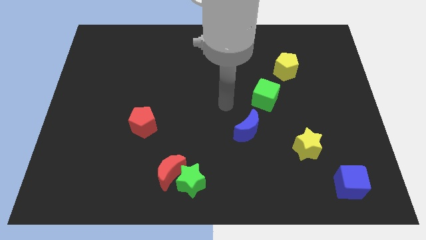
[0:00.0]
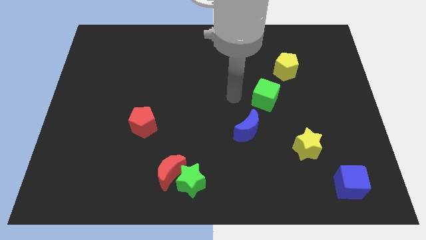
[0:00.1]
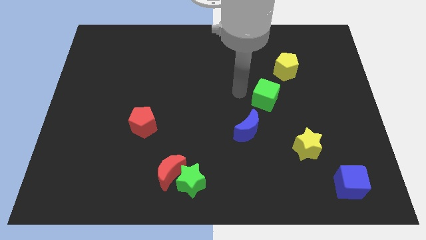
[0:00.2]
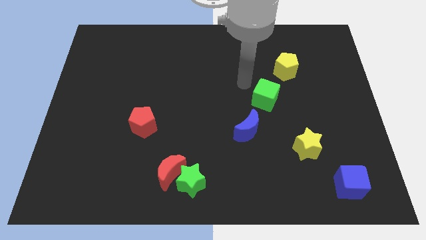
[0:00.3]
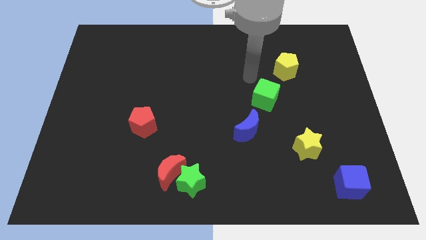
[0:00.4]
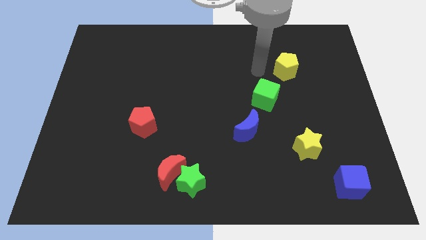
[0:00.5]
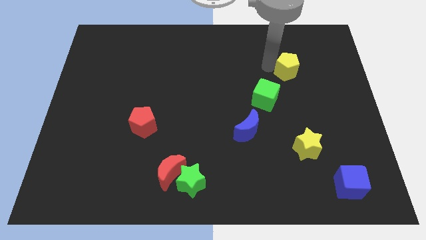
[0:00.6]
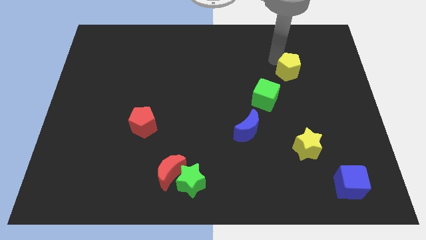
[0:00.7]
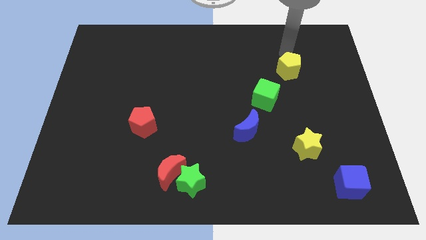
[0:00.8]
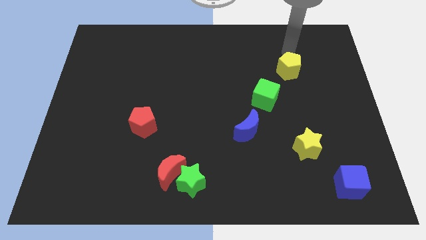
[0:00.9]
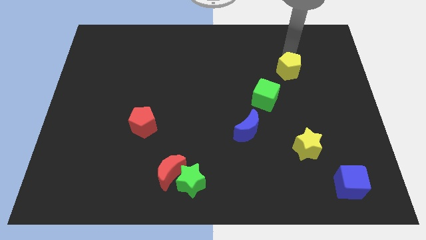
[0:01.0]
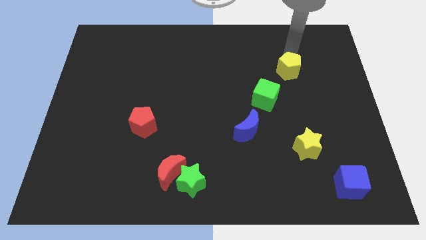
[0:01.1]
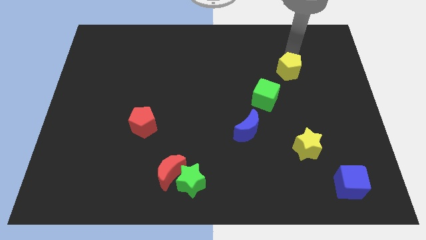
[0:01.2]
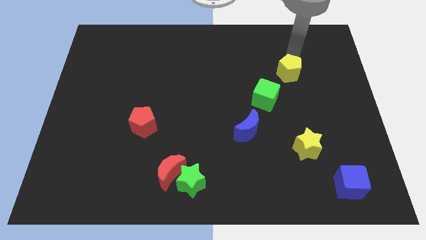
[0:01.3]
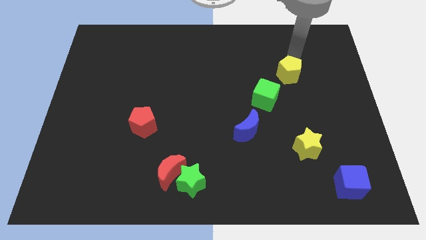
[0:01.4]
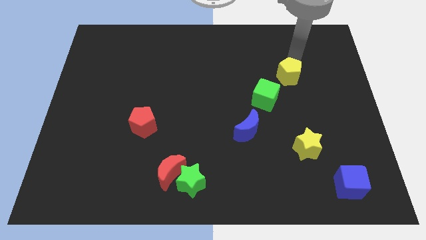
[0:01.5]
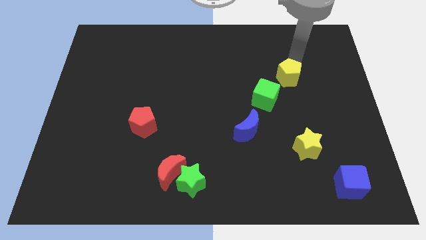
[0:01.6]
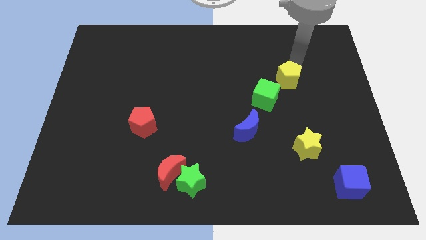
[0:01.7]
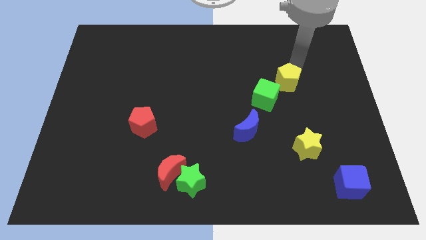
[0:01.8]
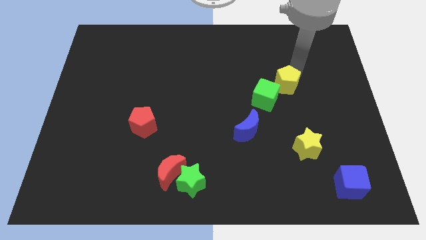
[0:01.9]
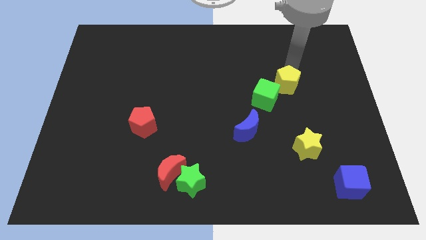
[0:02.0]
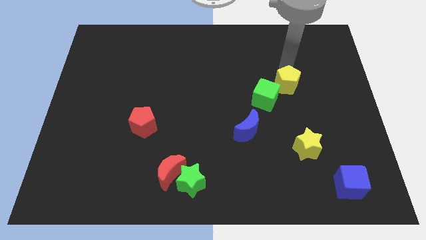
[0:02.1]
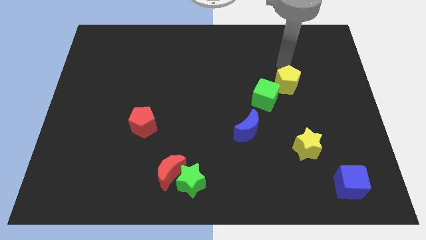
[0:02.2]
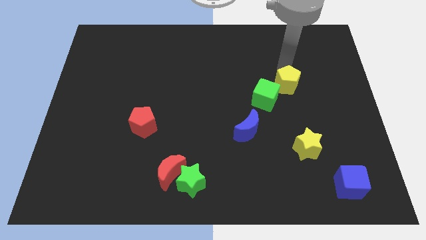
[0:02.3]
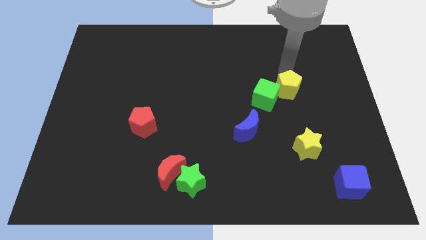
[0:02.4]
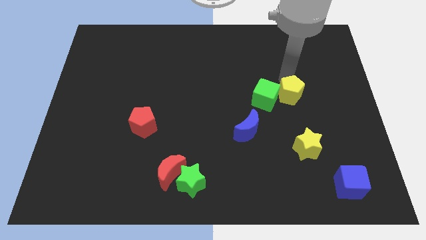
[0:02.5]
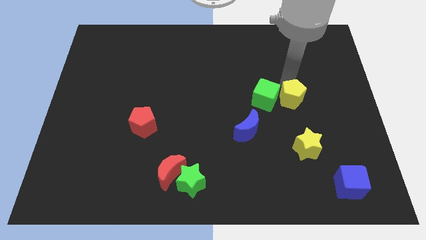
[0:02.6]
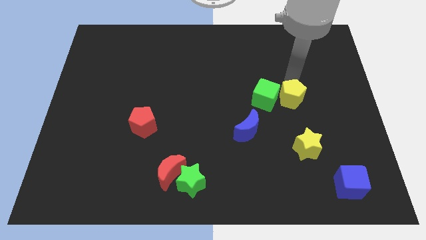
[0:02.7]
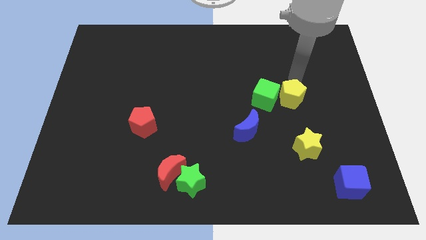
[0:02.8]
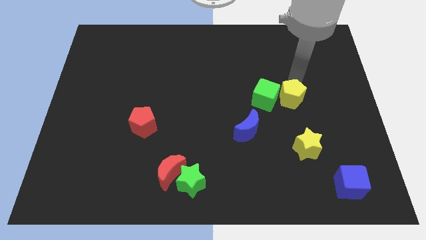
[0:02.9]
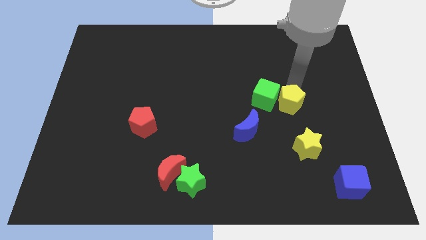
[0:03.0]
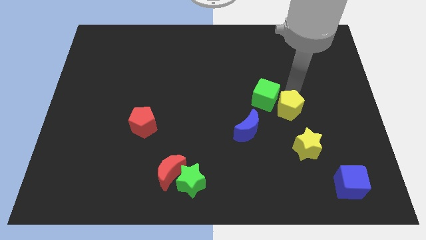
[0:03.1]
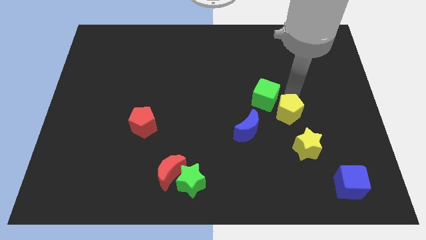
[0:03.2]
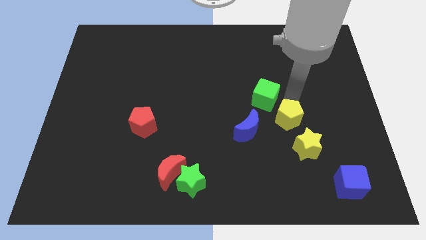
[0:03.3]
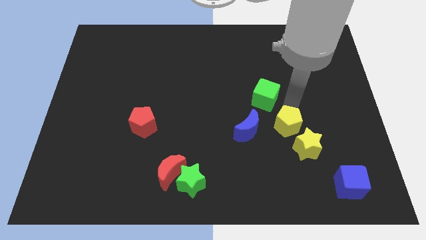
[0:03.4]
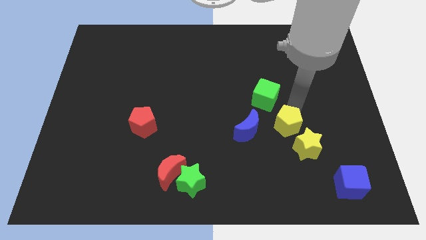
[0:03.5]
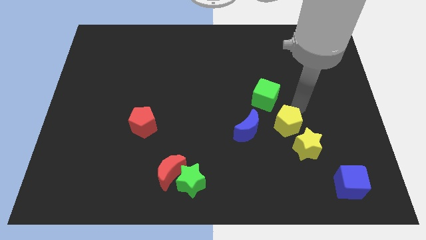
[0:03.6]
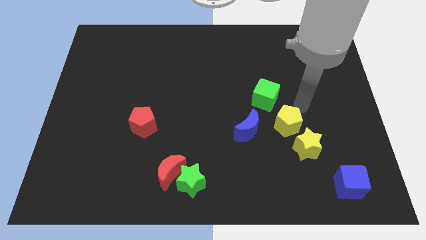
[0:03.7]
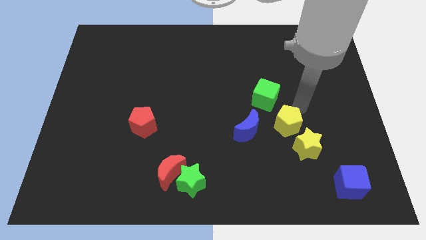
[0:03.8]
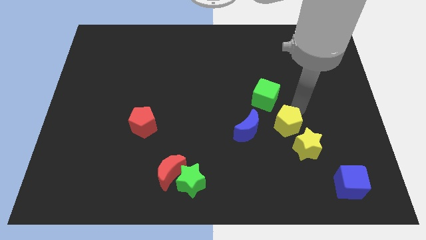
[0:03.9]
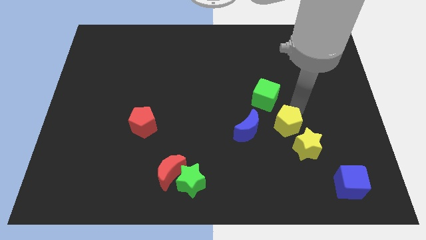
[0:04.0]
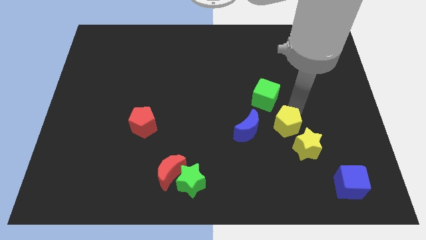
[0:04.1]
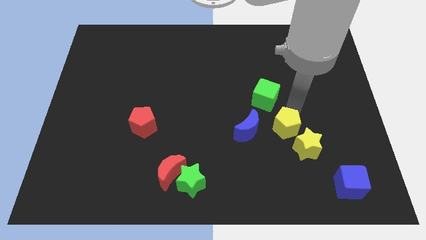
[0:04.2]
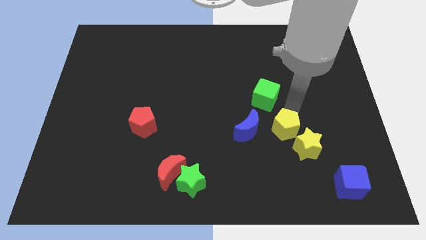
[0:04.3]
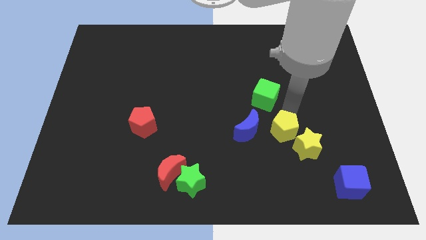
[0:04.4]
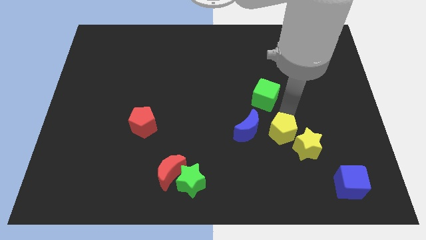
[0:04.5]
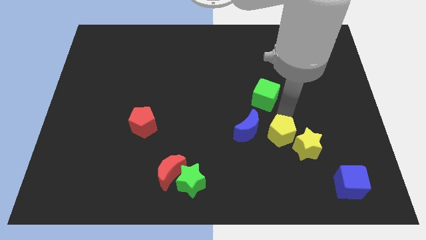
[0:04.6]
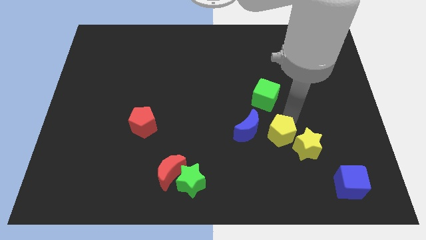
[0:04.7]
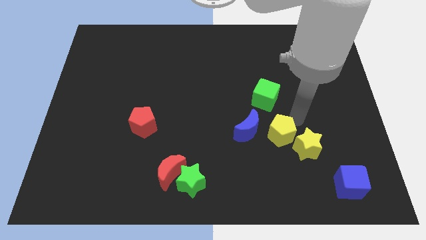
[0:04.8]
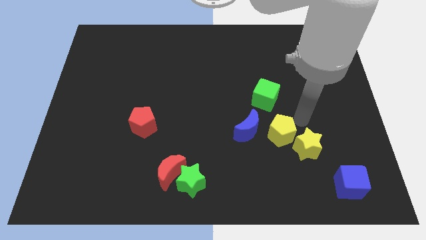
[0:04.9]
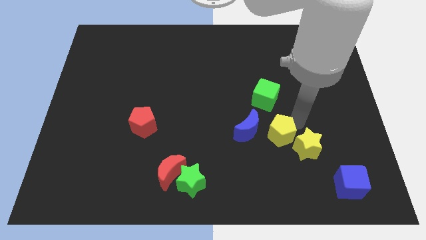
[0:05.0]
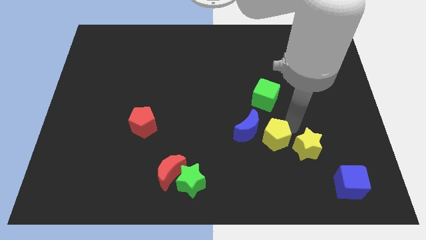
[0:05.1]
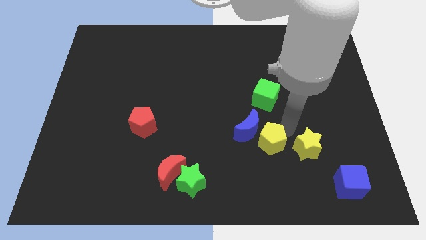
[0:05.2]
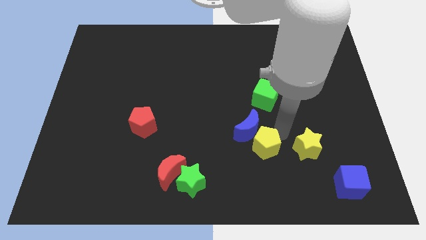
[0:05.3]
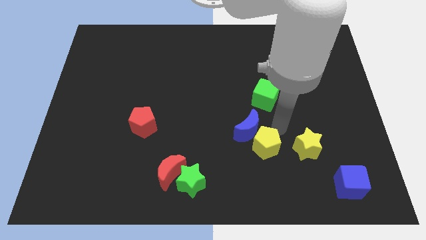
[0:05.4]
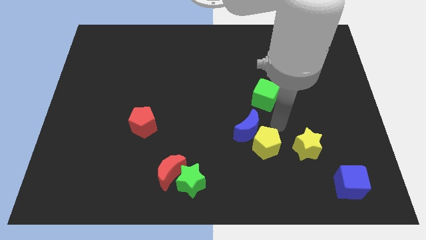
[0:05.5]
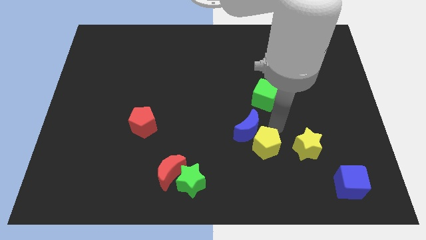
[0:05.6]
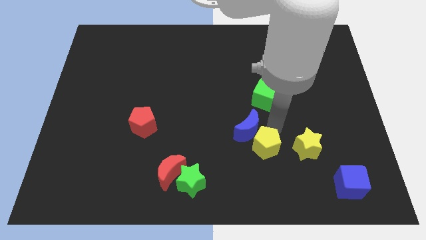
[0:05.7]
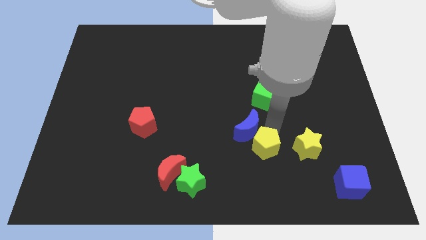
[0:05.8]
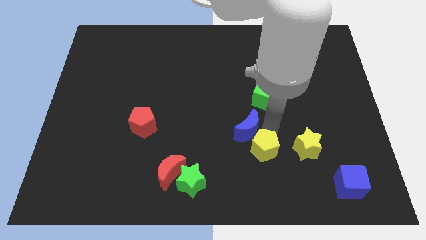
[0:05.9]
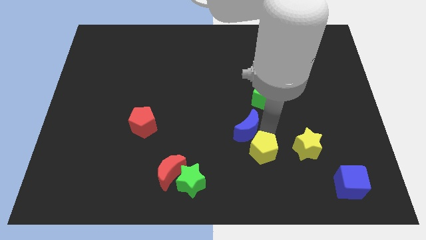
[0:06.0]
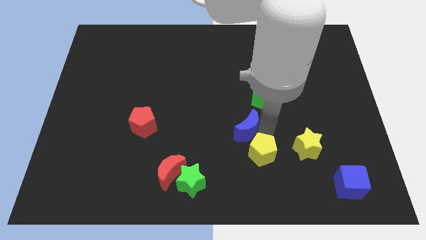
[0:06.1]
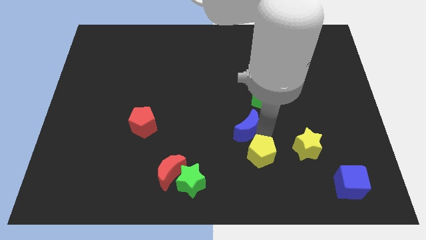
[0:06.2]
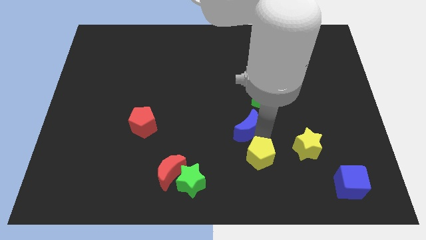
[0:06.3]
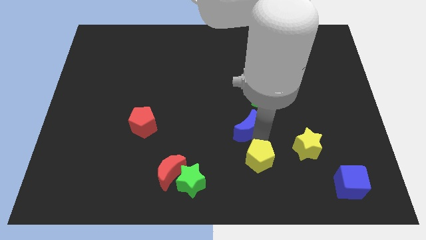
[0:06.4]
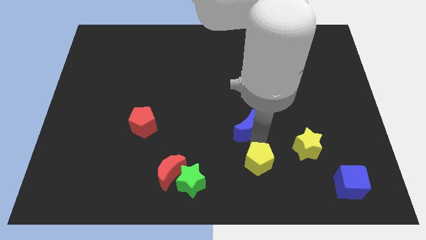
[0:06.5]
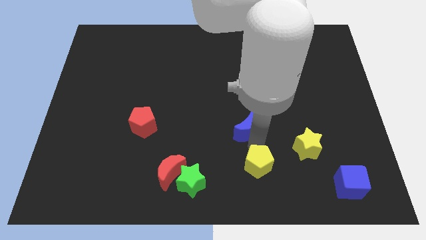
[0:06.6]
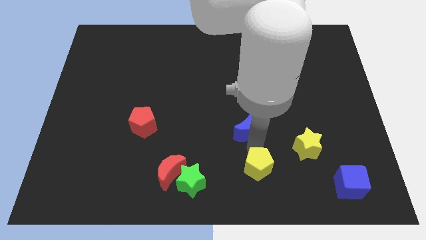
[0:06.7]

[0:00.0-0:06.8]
slide the yellow pentagon to the bottom side

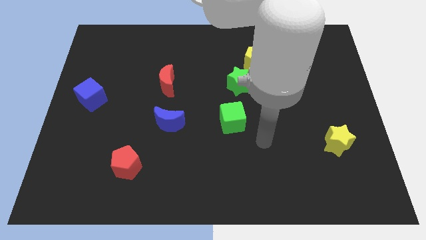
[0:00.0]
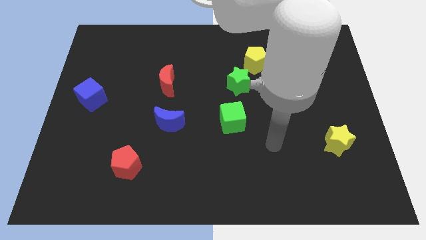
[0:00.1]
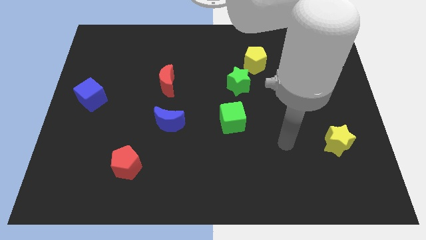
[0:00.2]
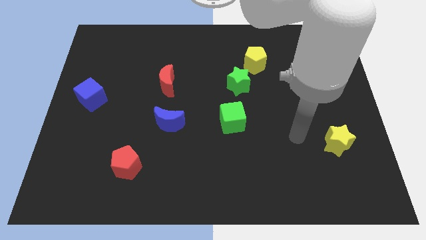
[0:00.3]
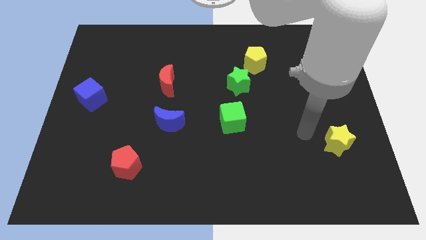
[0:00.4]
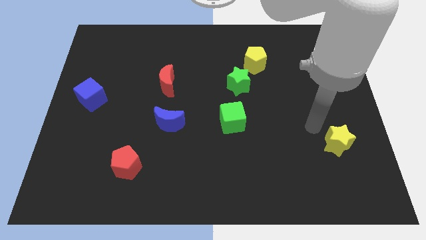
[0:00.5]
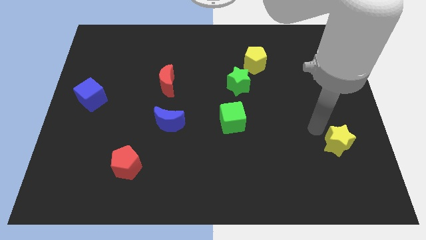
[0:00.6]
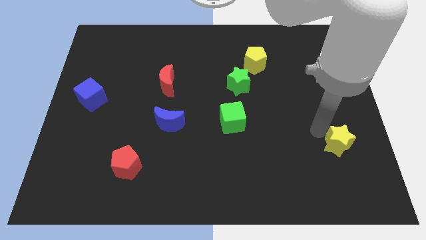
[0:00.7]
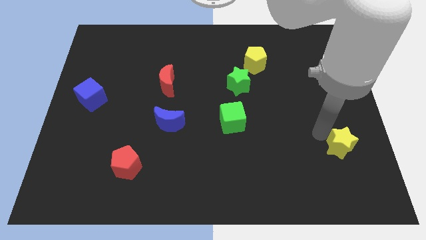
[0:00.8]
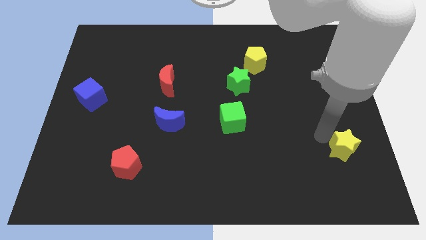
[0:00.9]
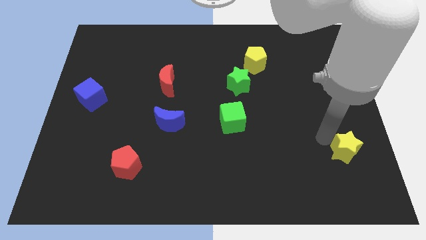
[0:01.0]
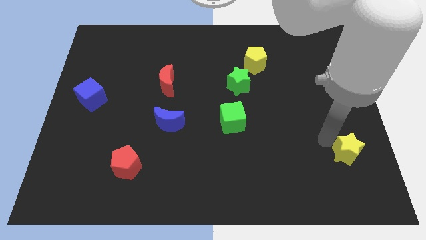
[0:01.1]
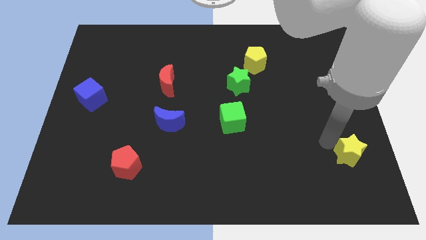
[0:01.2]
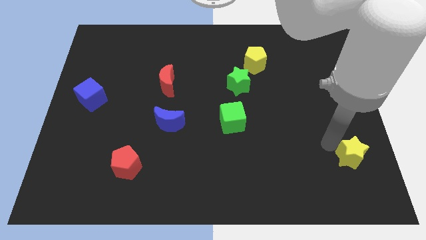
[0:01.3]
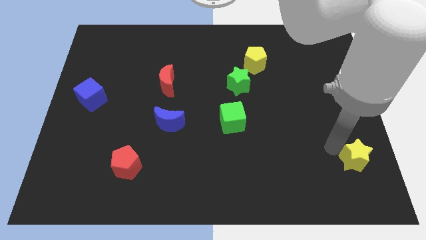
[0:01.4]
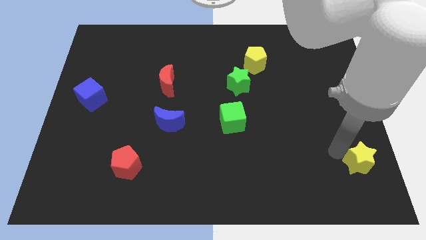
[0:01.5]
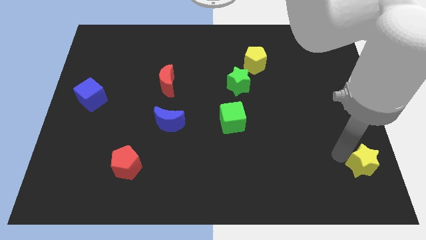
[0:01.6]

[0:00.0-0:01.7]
push the yellow star to the bottom right
